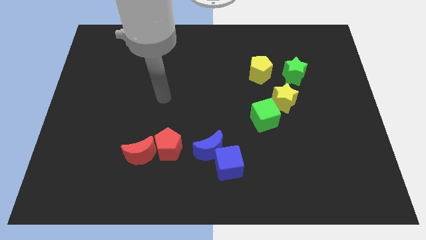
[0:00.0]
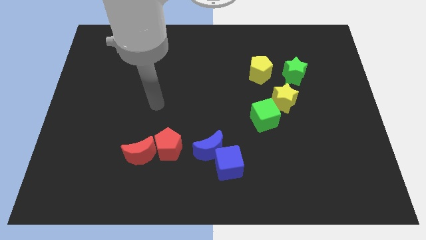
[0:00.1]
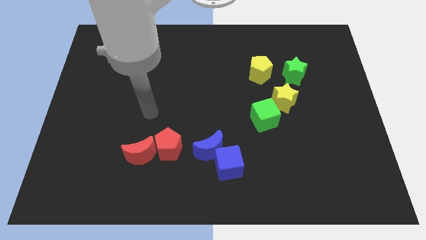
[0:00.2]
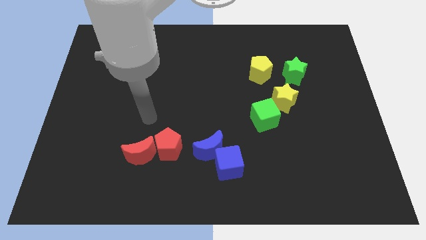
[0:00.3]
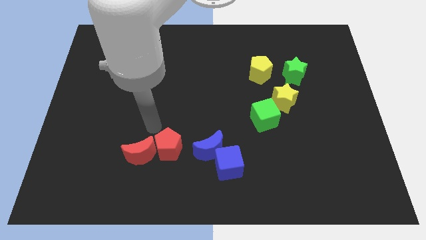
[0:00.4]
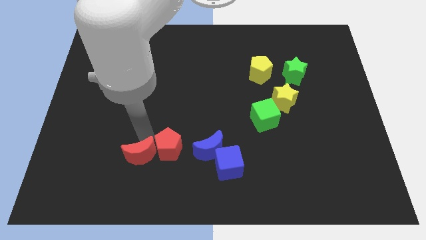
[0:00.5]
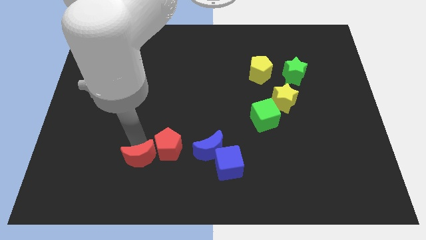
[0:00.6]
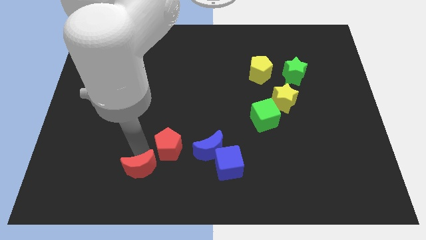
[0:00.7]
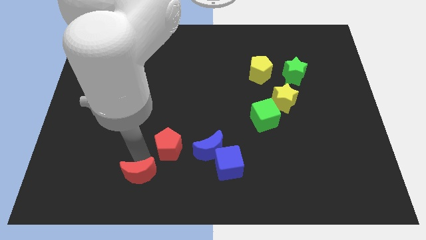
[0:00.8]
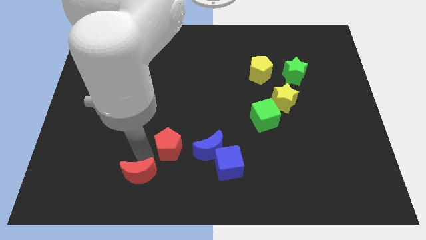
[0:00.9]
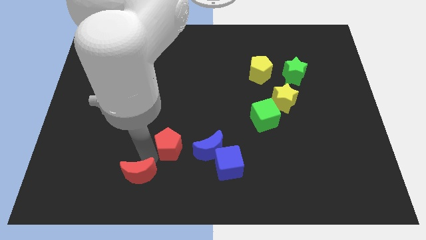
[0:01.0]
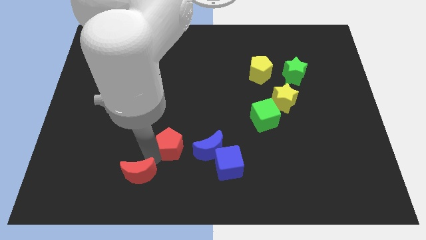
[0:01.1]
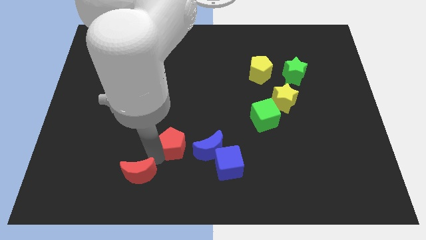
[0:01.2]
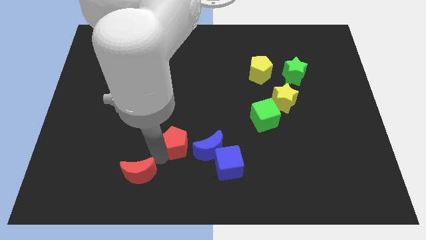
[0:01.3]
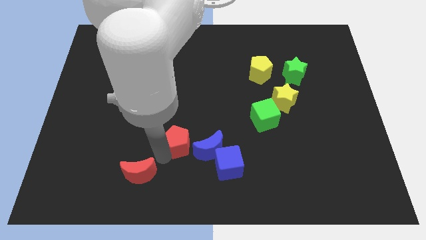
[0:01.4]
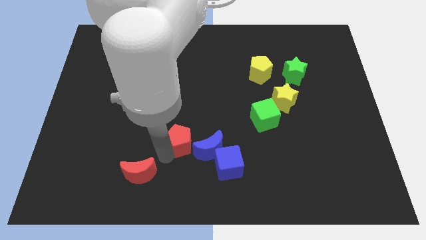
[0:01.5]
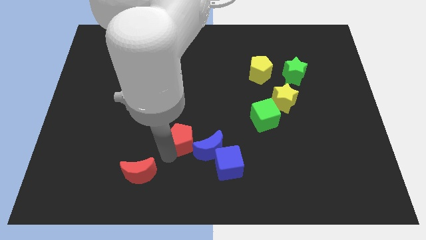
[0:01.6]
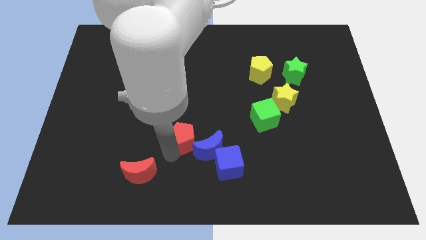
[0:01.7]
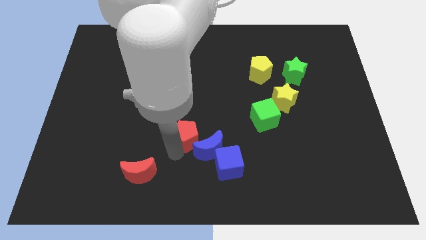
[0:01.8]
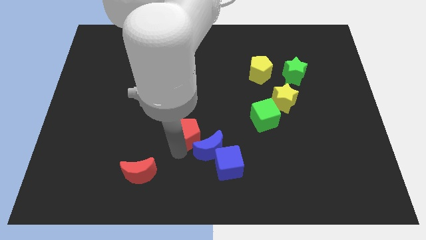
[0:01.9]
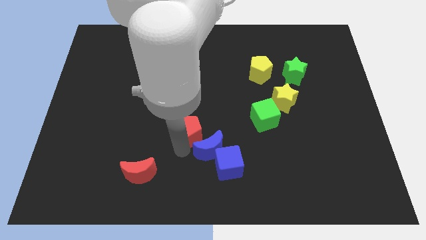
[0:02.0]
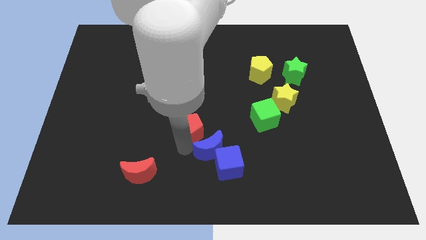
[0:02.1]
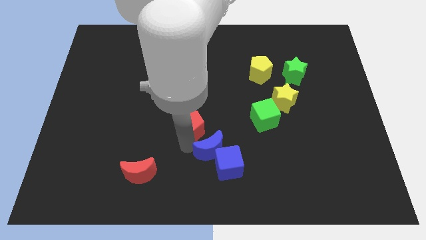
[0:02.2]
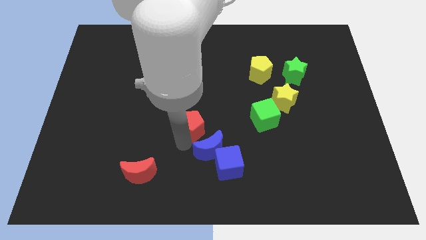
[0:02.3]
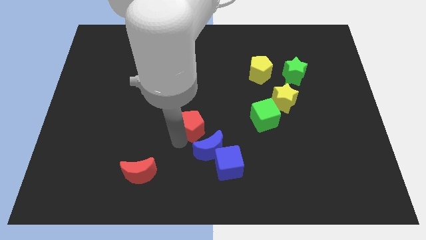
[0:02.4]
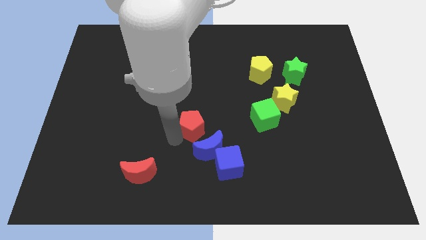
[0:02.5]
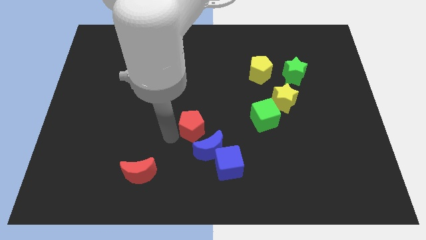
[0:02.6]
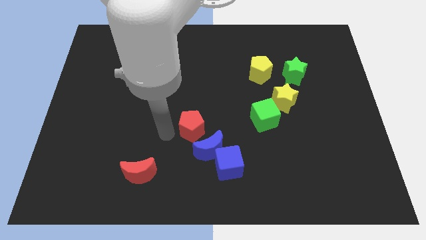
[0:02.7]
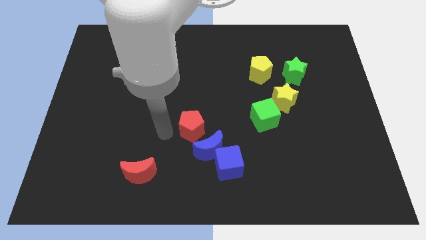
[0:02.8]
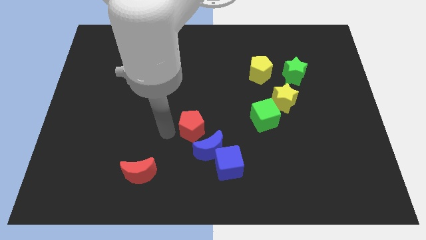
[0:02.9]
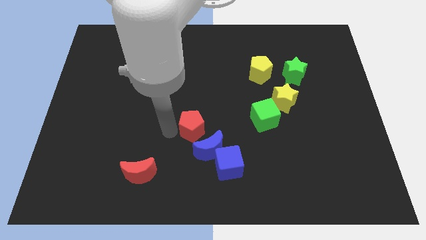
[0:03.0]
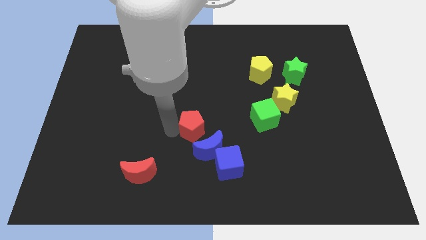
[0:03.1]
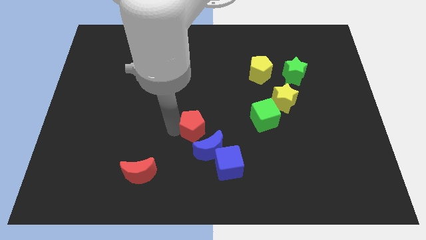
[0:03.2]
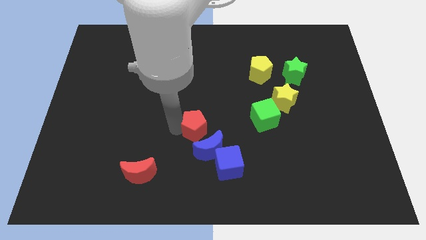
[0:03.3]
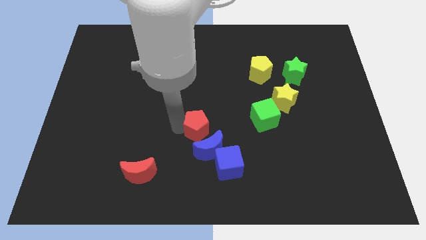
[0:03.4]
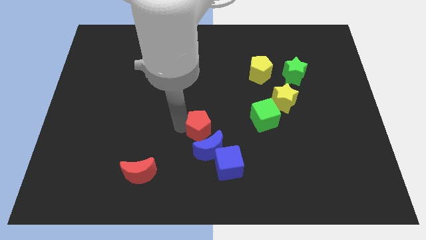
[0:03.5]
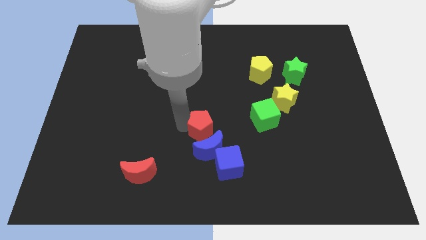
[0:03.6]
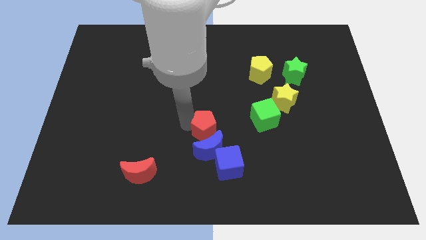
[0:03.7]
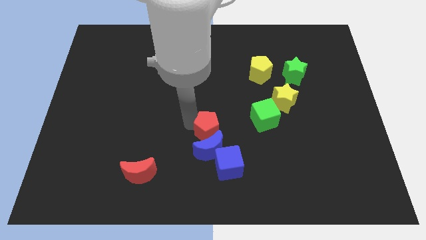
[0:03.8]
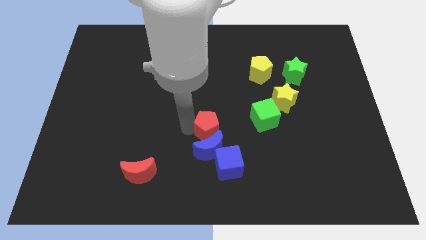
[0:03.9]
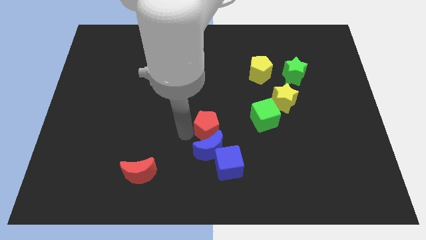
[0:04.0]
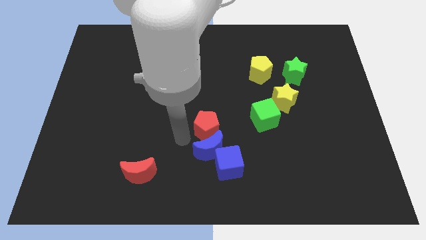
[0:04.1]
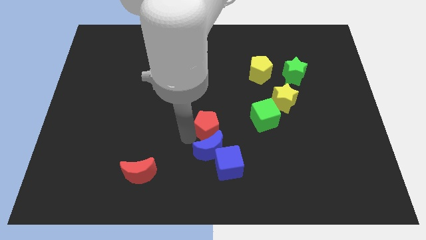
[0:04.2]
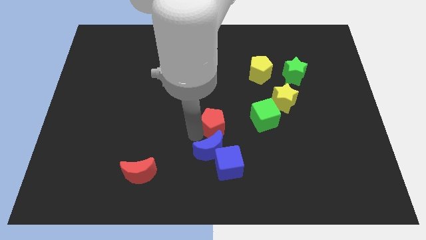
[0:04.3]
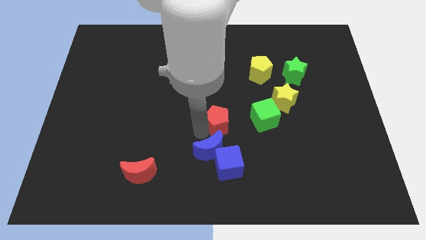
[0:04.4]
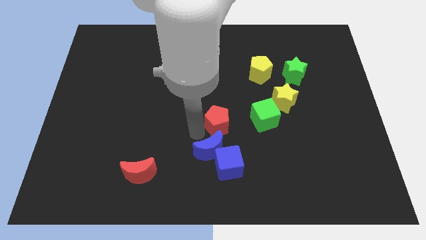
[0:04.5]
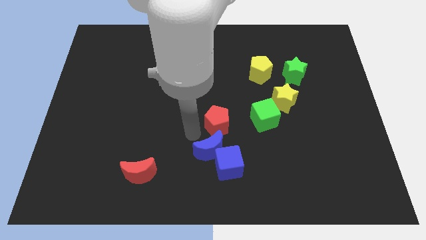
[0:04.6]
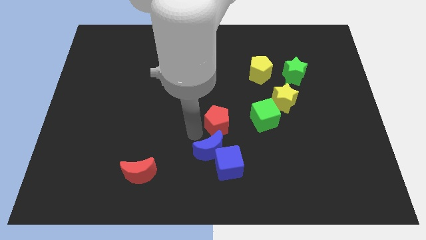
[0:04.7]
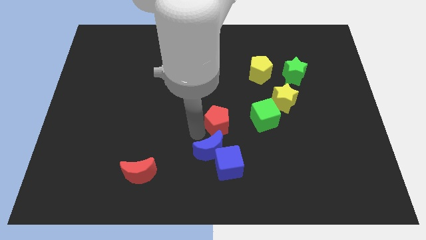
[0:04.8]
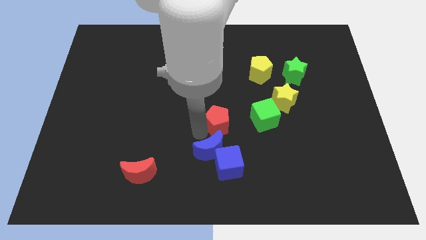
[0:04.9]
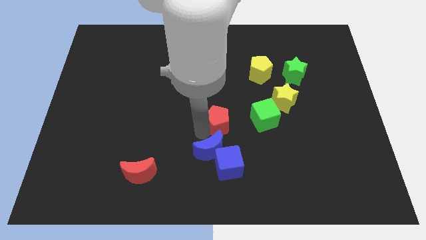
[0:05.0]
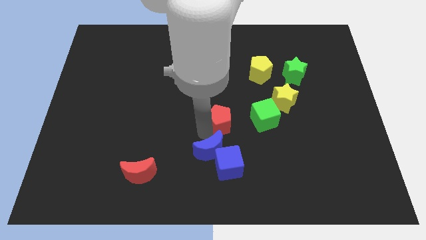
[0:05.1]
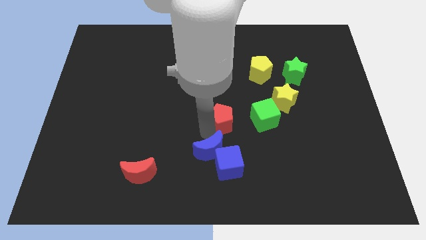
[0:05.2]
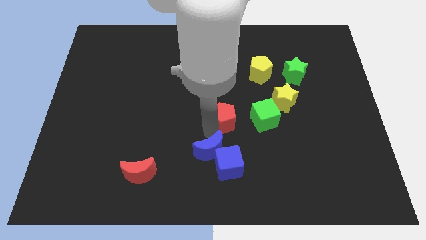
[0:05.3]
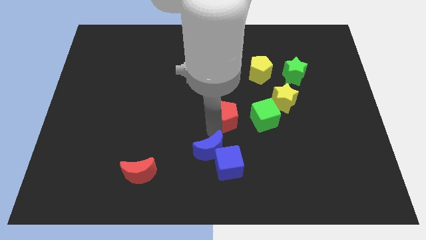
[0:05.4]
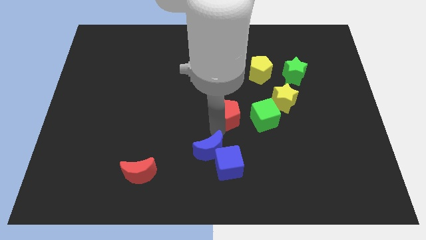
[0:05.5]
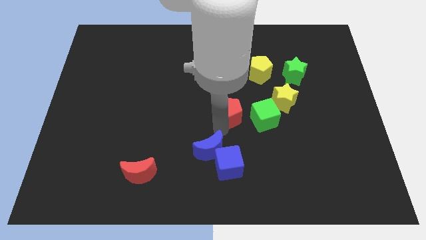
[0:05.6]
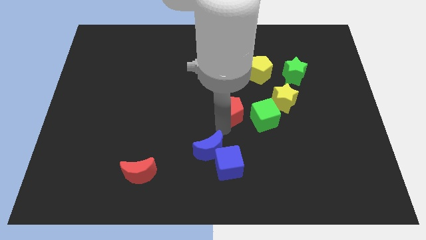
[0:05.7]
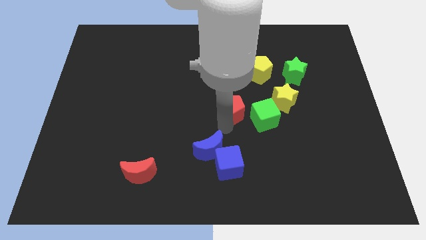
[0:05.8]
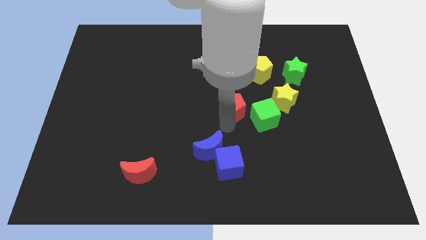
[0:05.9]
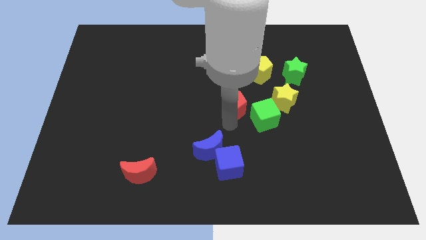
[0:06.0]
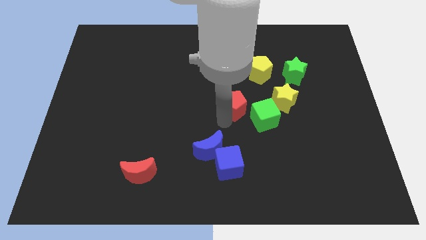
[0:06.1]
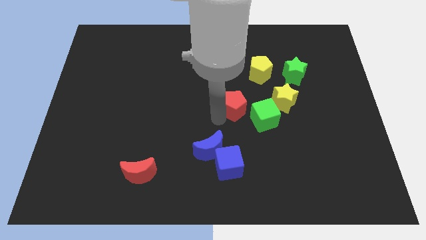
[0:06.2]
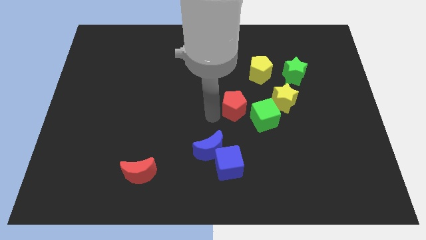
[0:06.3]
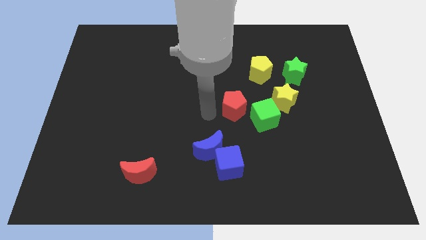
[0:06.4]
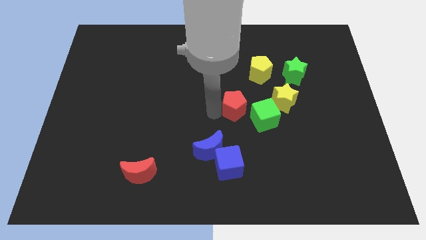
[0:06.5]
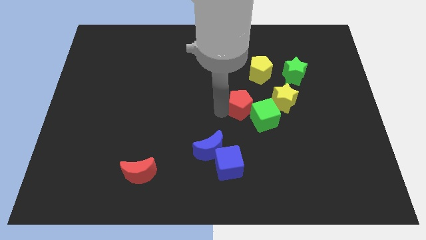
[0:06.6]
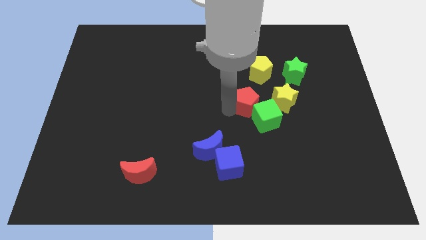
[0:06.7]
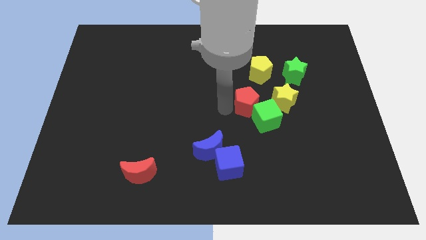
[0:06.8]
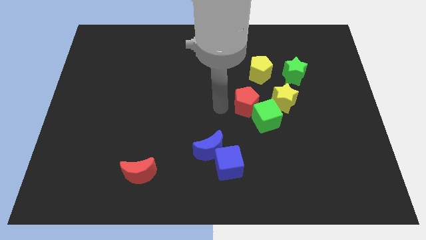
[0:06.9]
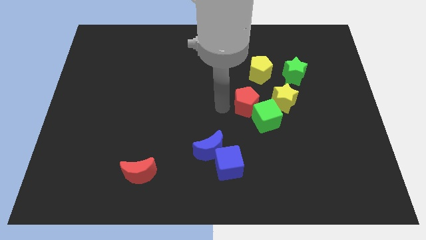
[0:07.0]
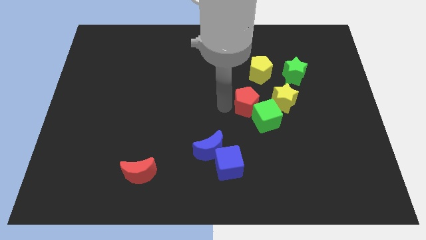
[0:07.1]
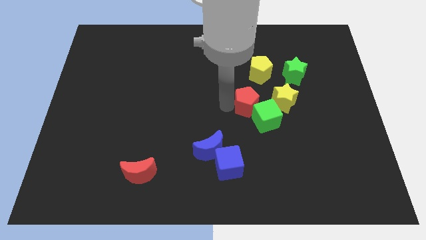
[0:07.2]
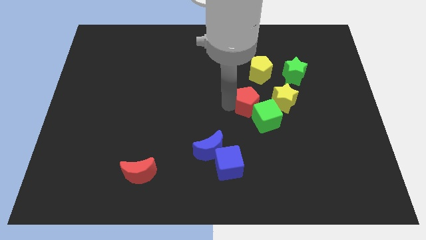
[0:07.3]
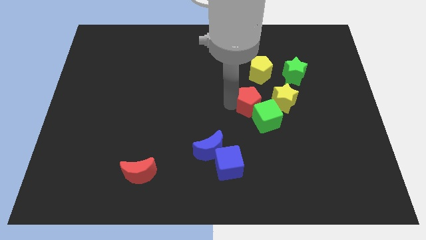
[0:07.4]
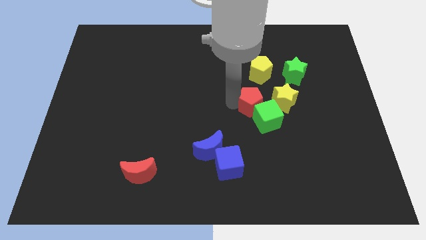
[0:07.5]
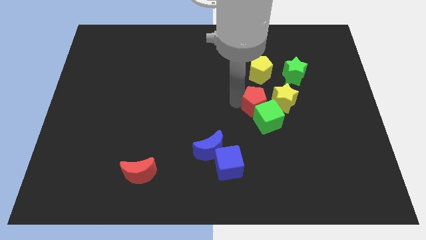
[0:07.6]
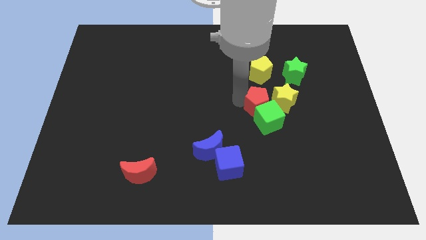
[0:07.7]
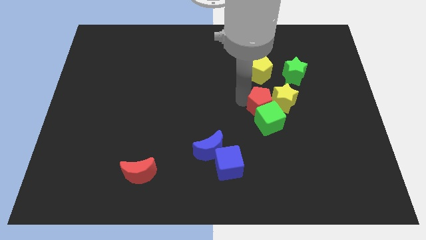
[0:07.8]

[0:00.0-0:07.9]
put the red pentagon next to the yellow star
